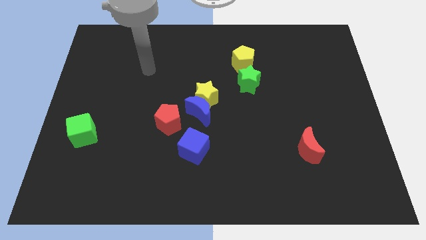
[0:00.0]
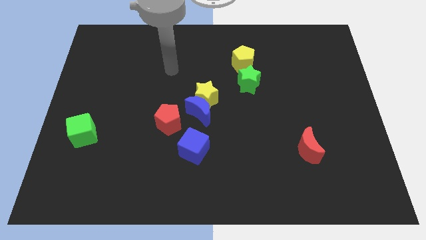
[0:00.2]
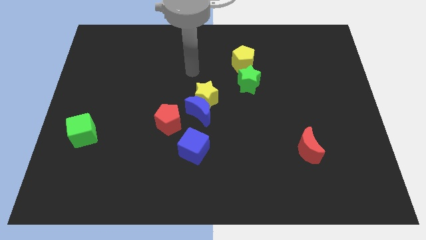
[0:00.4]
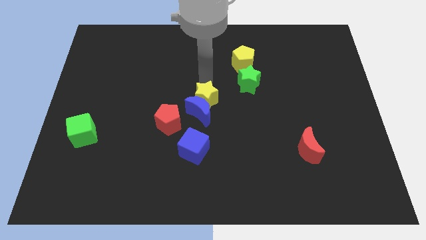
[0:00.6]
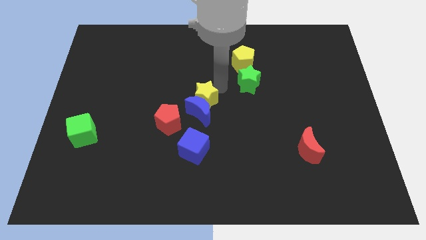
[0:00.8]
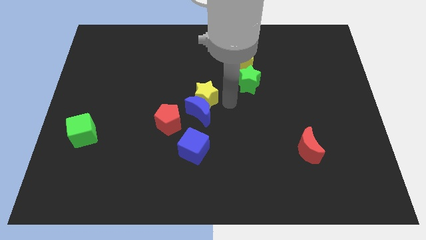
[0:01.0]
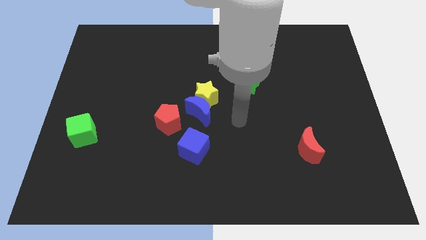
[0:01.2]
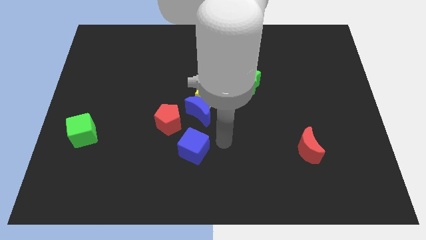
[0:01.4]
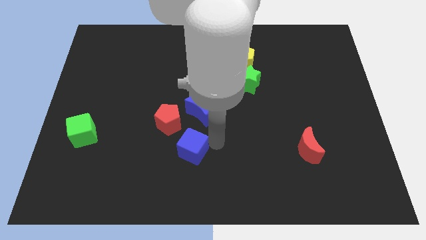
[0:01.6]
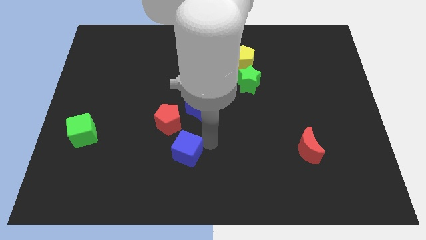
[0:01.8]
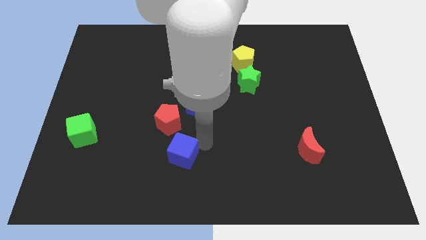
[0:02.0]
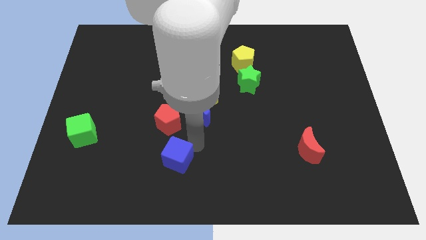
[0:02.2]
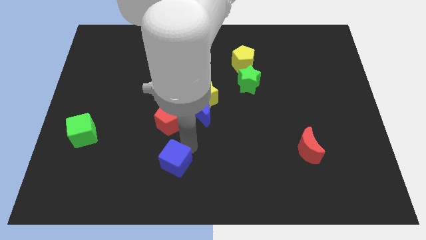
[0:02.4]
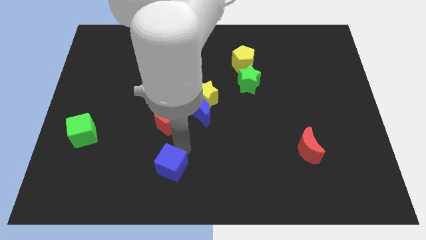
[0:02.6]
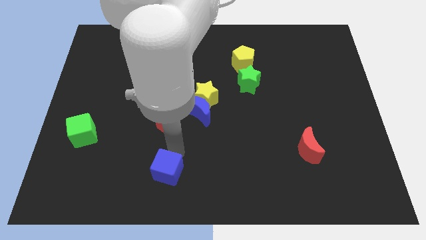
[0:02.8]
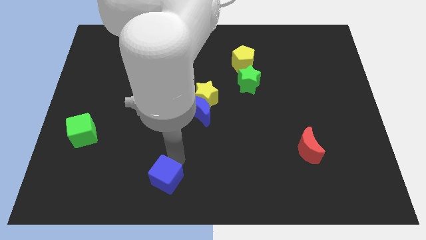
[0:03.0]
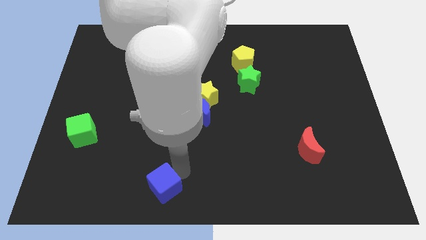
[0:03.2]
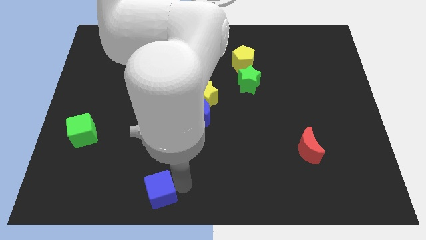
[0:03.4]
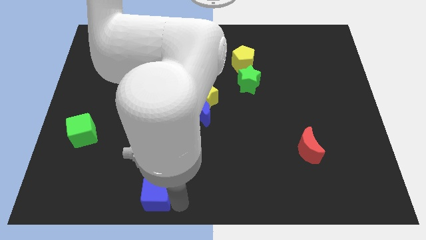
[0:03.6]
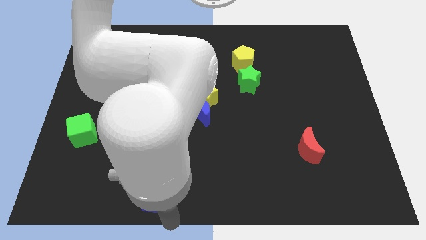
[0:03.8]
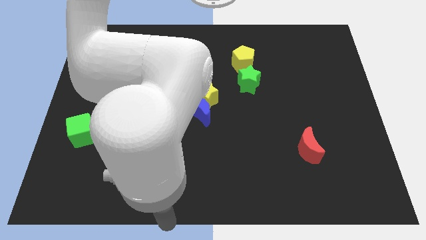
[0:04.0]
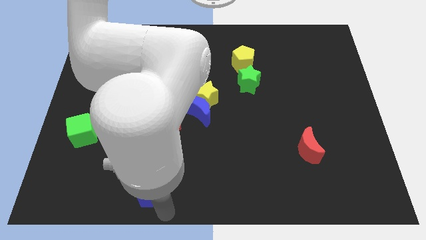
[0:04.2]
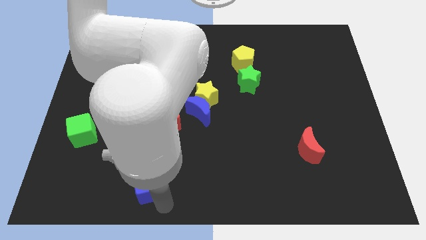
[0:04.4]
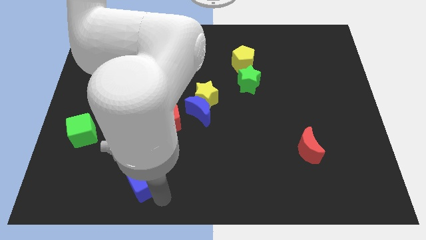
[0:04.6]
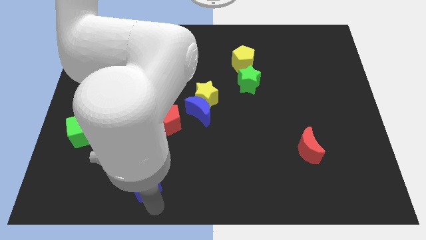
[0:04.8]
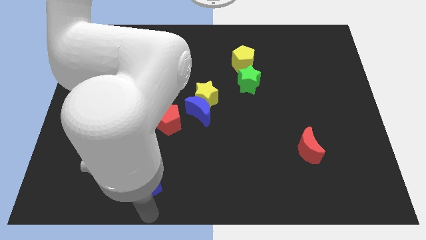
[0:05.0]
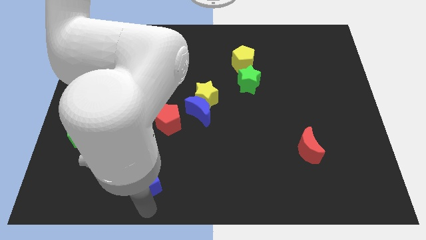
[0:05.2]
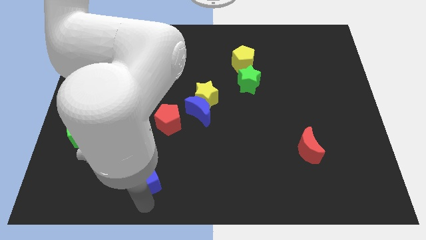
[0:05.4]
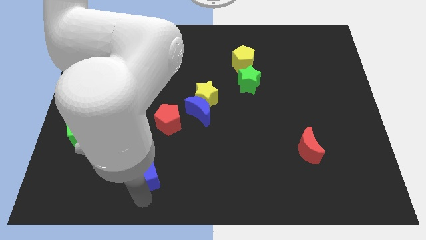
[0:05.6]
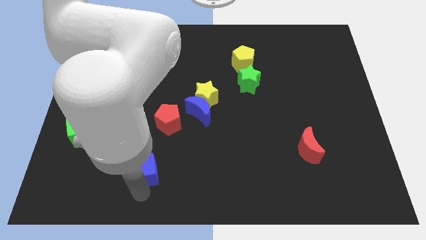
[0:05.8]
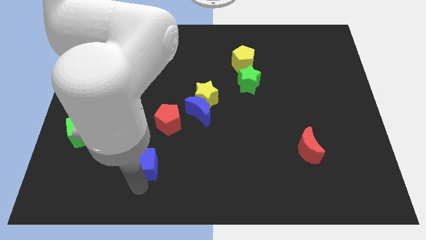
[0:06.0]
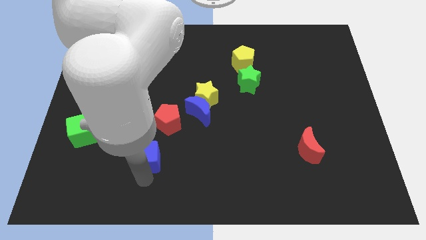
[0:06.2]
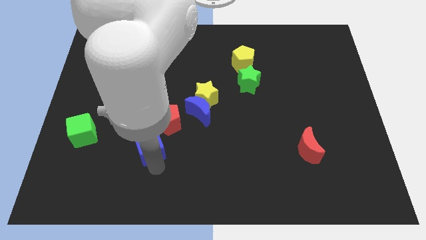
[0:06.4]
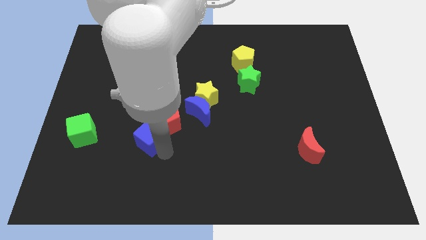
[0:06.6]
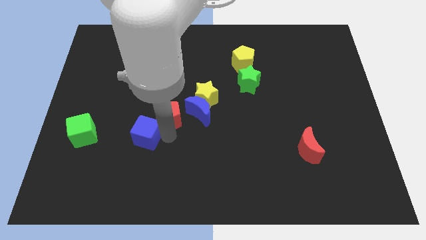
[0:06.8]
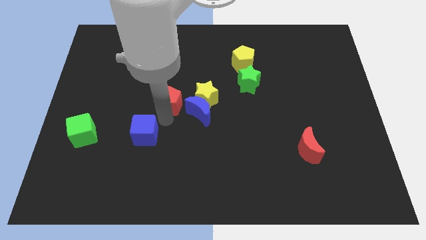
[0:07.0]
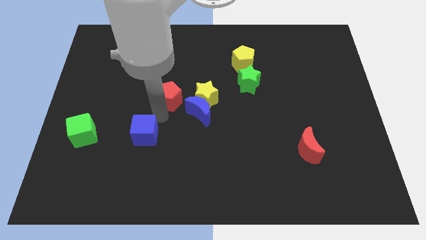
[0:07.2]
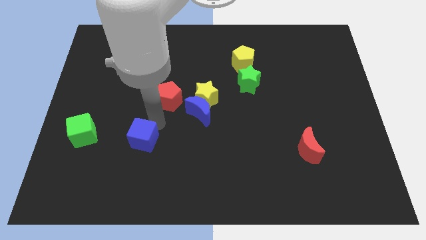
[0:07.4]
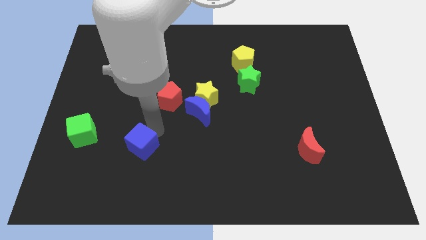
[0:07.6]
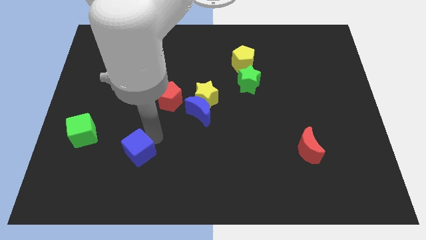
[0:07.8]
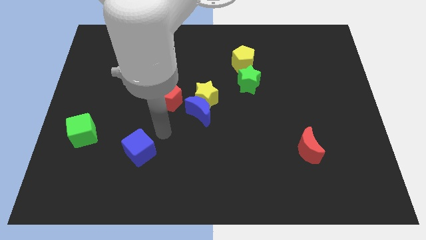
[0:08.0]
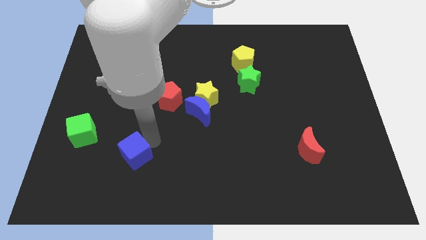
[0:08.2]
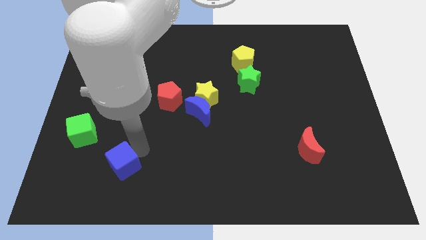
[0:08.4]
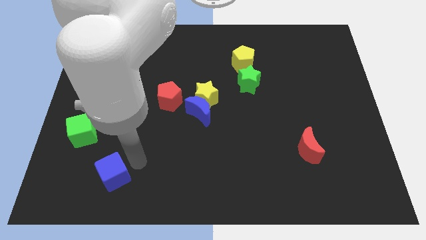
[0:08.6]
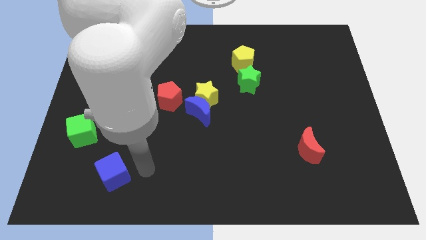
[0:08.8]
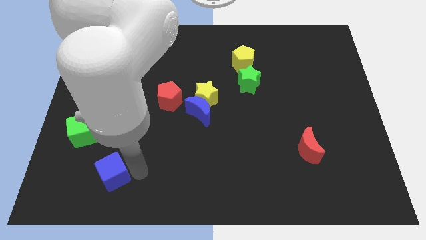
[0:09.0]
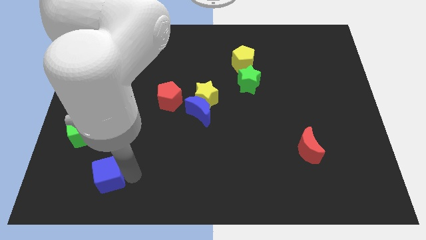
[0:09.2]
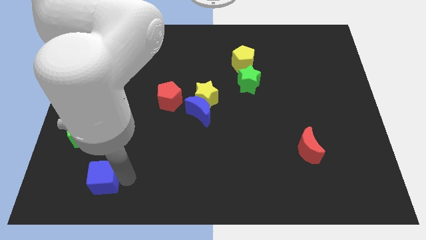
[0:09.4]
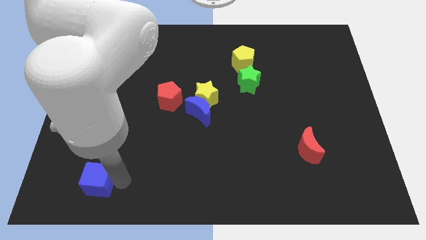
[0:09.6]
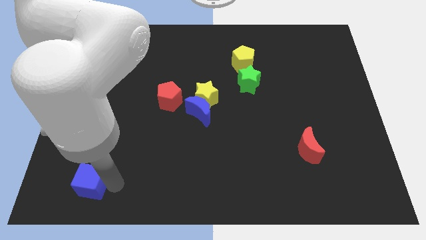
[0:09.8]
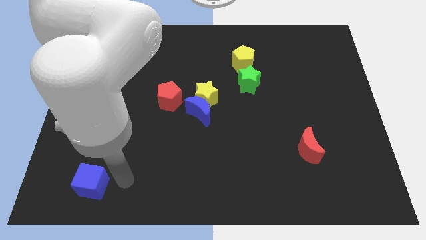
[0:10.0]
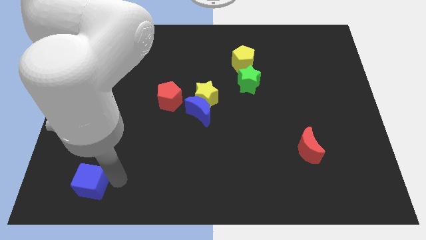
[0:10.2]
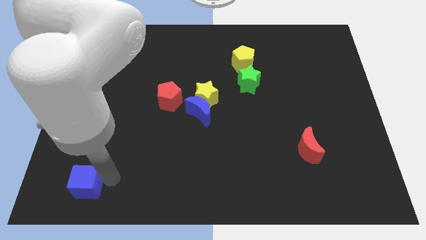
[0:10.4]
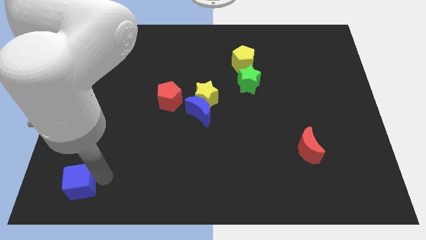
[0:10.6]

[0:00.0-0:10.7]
push the blue cube to the lower left corner
